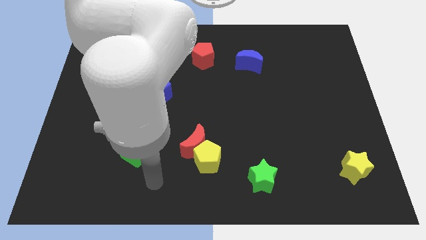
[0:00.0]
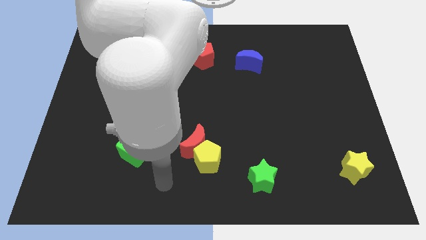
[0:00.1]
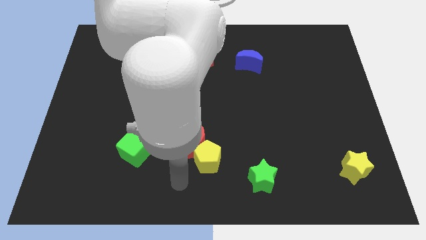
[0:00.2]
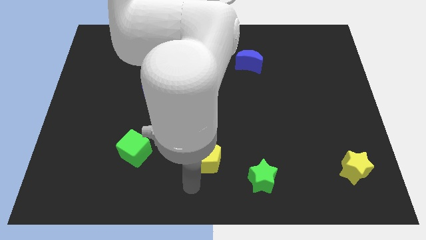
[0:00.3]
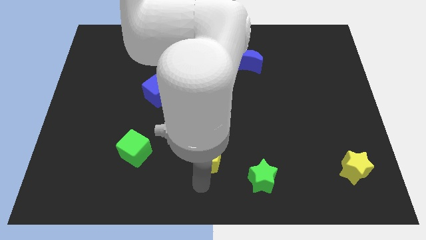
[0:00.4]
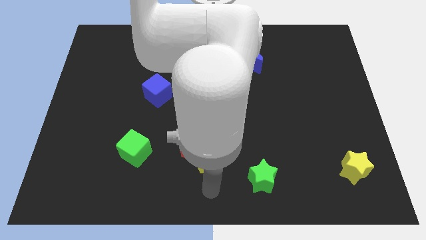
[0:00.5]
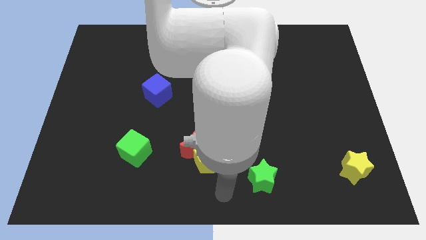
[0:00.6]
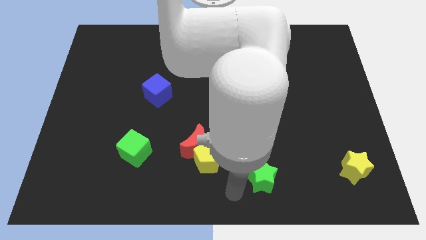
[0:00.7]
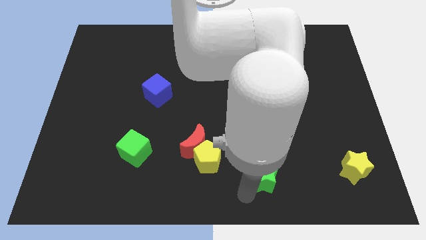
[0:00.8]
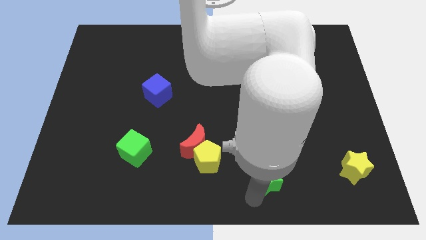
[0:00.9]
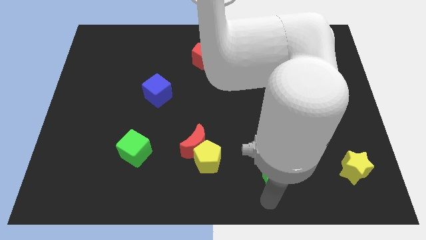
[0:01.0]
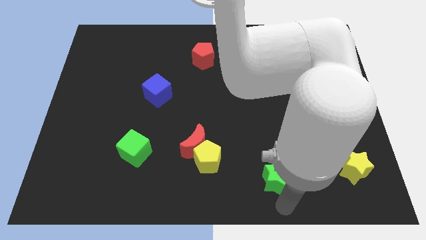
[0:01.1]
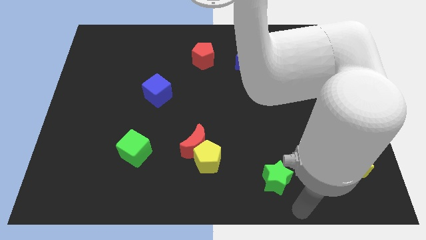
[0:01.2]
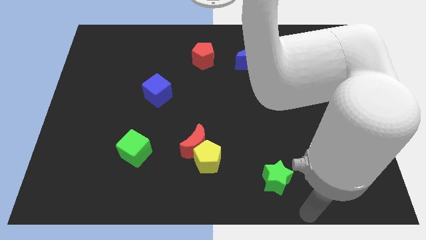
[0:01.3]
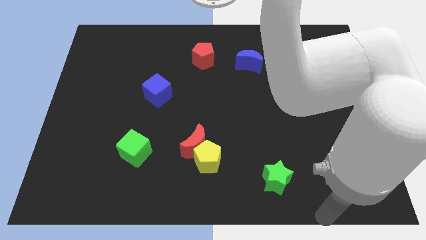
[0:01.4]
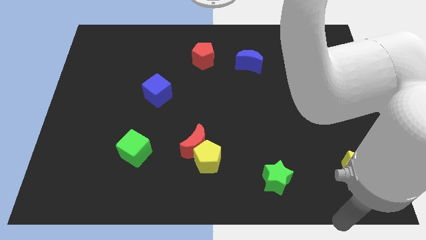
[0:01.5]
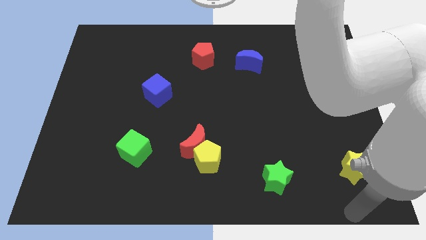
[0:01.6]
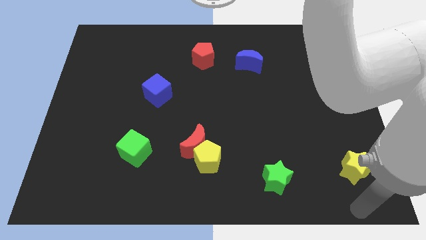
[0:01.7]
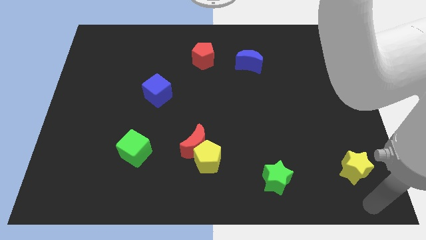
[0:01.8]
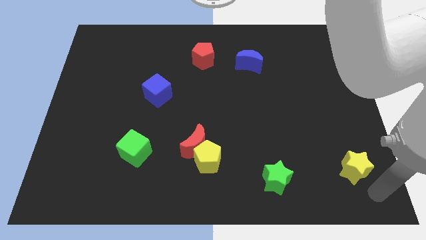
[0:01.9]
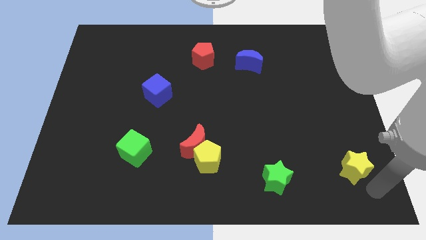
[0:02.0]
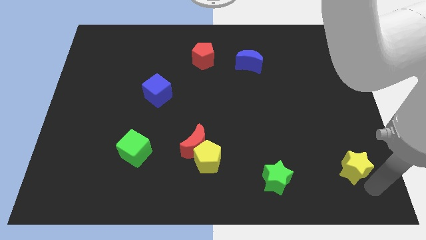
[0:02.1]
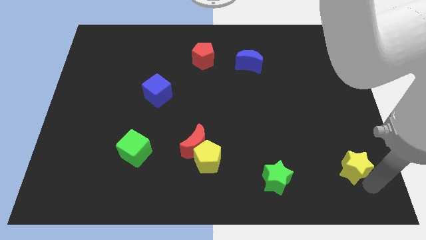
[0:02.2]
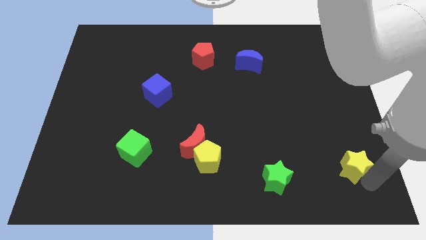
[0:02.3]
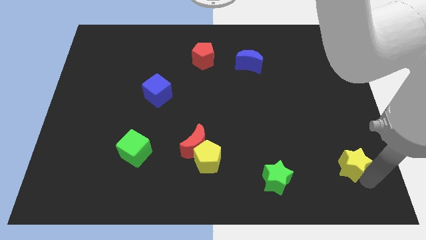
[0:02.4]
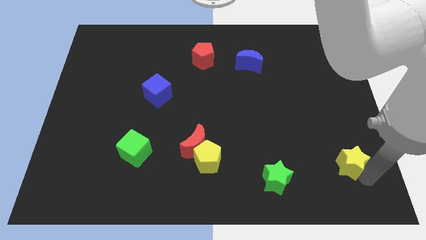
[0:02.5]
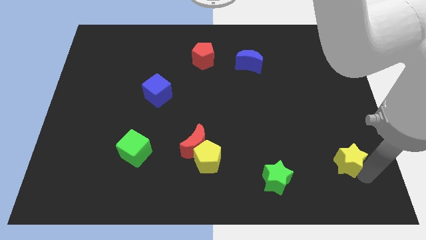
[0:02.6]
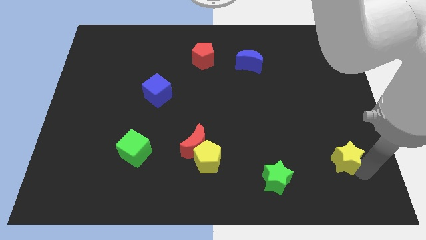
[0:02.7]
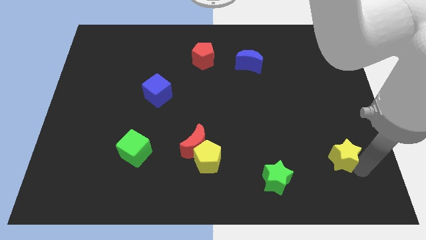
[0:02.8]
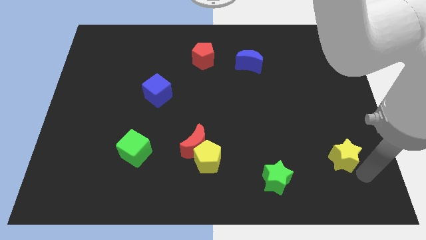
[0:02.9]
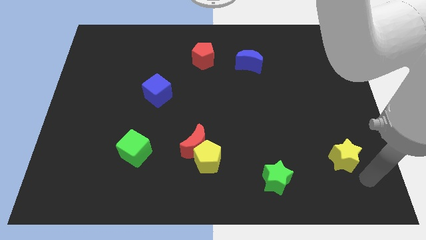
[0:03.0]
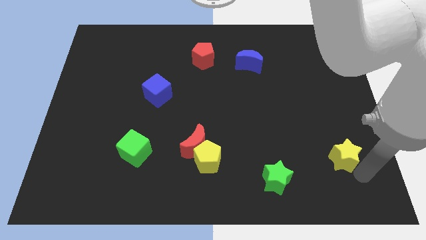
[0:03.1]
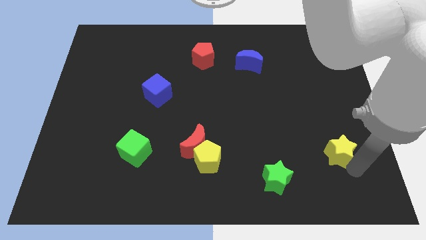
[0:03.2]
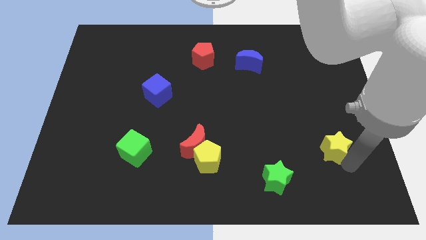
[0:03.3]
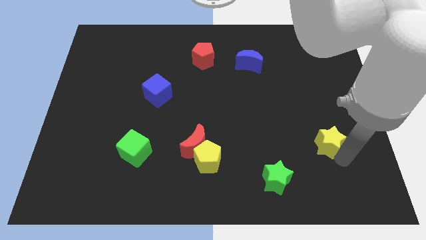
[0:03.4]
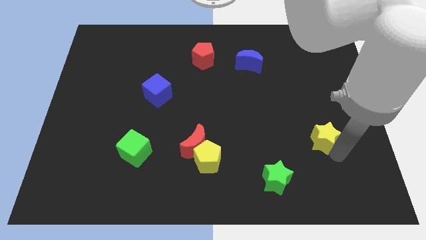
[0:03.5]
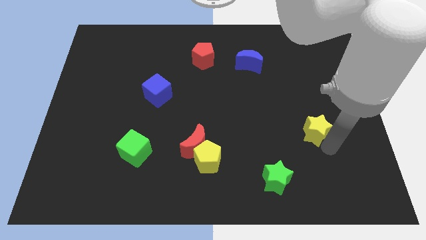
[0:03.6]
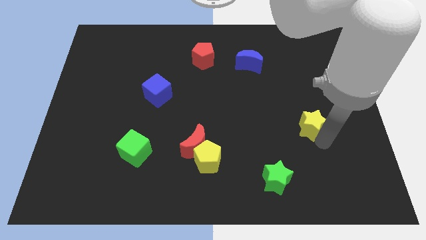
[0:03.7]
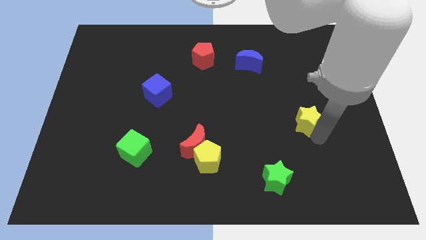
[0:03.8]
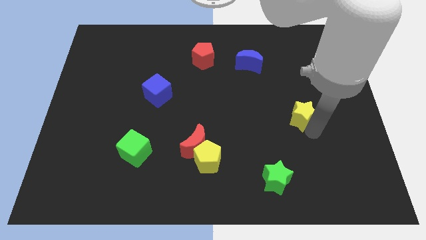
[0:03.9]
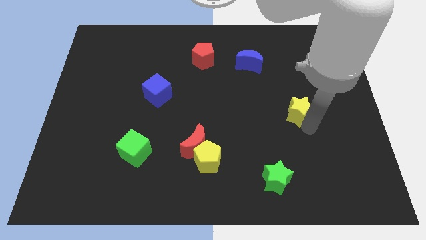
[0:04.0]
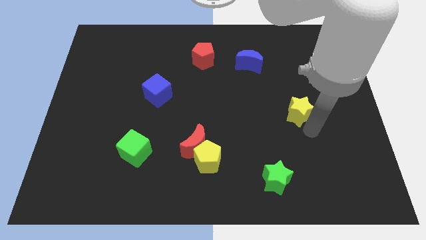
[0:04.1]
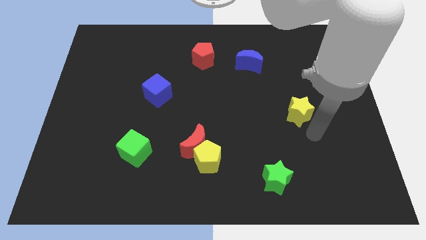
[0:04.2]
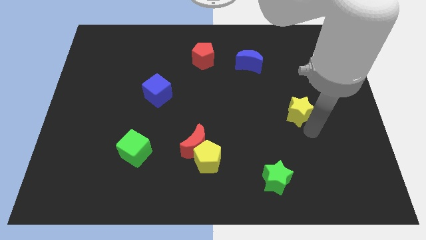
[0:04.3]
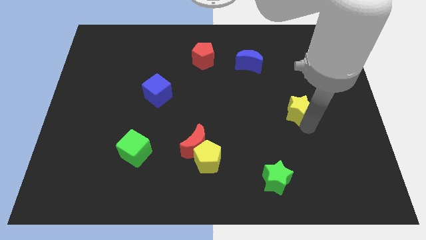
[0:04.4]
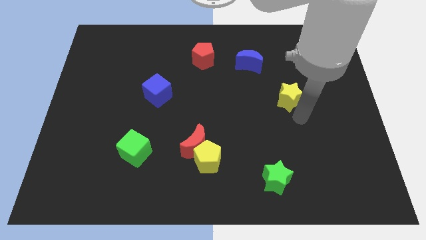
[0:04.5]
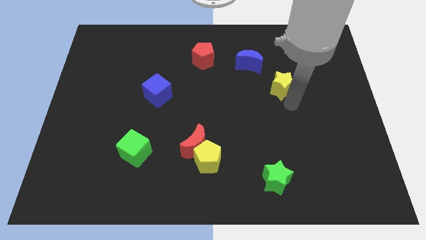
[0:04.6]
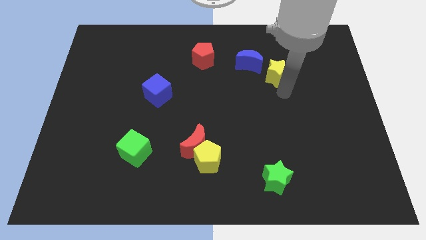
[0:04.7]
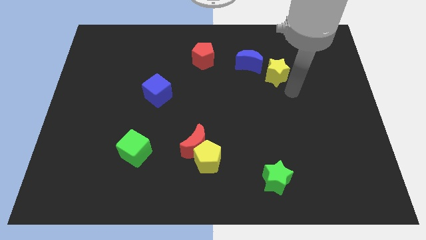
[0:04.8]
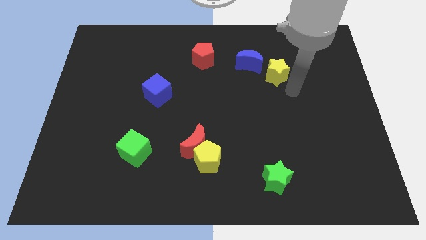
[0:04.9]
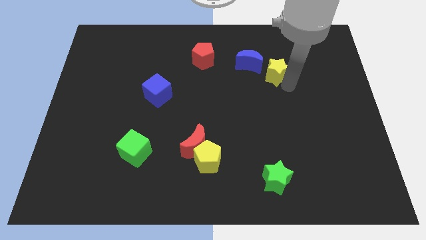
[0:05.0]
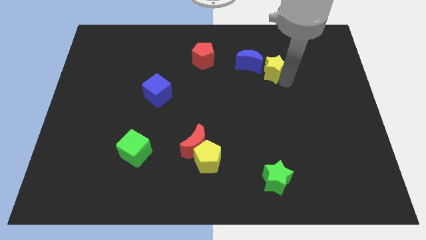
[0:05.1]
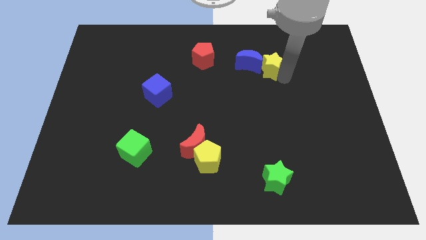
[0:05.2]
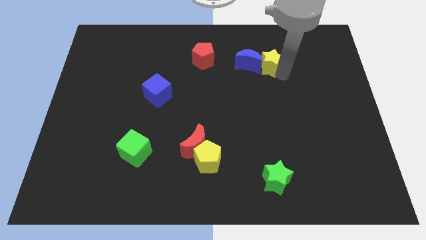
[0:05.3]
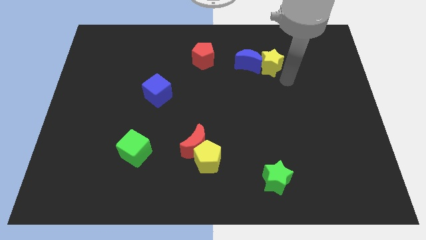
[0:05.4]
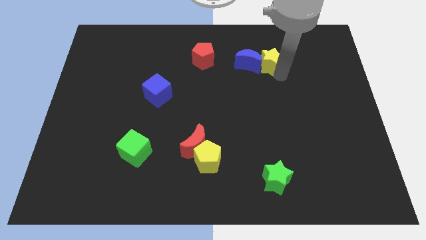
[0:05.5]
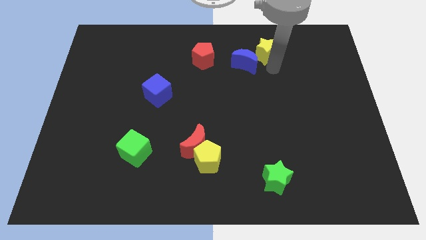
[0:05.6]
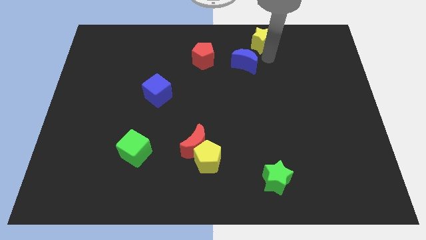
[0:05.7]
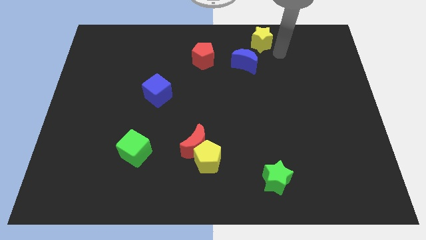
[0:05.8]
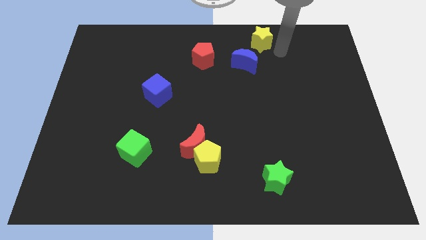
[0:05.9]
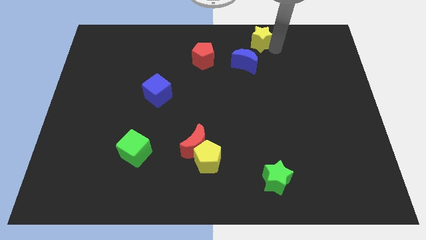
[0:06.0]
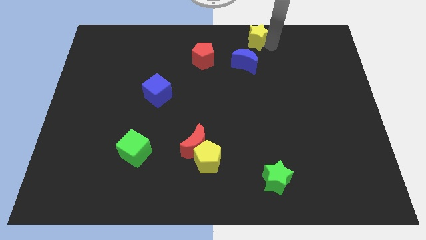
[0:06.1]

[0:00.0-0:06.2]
slide the yellow star to the top side

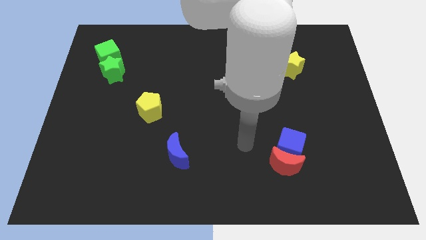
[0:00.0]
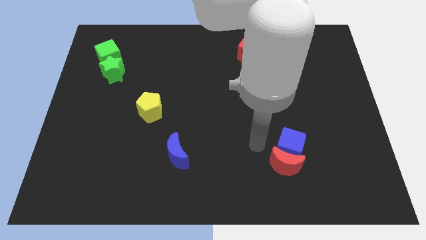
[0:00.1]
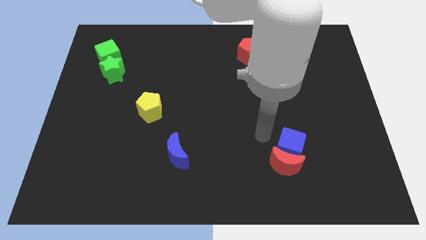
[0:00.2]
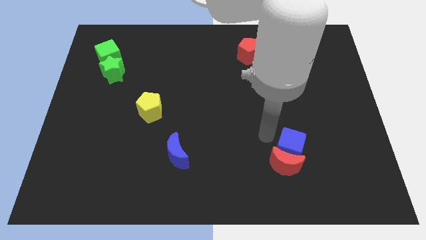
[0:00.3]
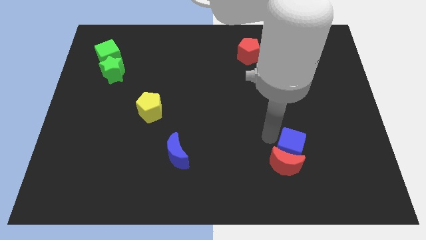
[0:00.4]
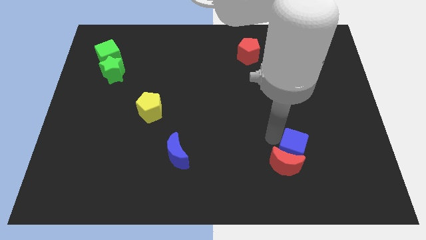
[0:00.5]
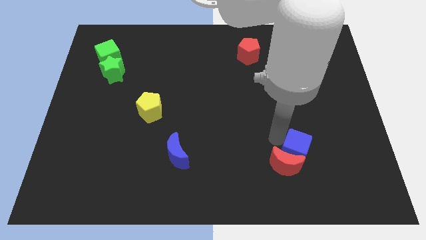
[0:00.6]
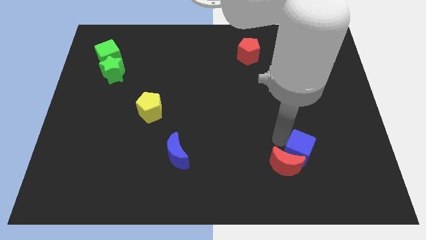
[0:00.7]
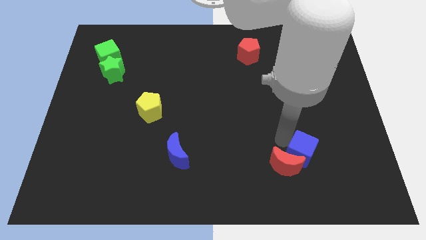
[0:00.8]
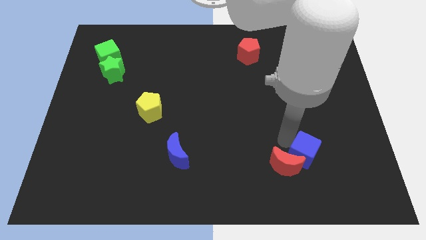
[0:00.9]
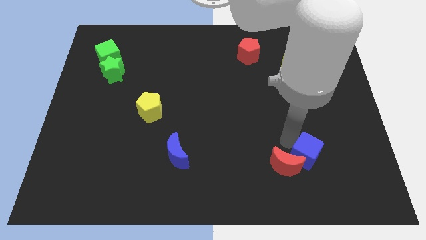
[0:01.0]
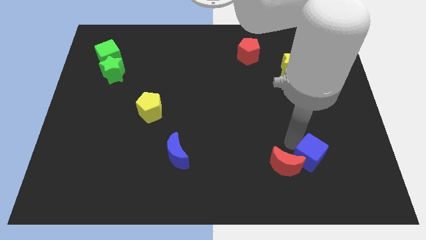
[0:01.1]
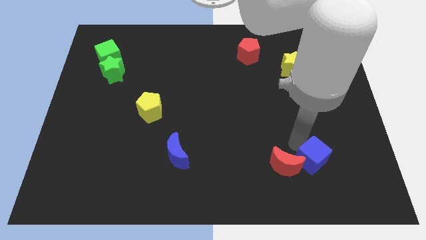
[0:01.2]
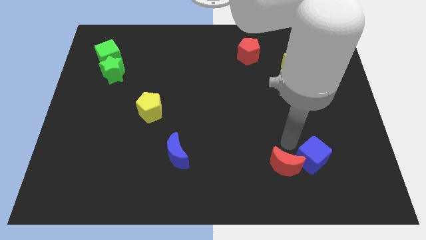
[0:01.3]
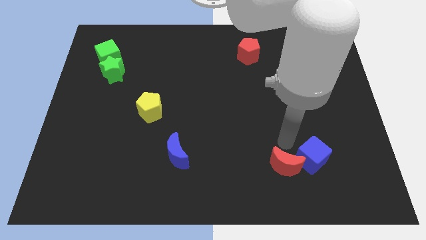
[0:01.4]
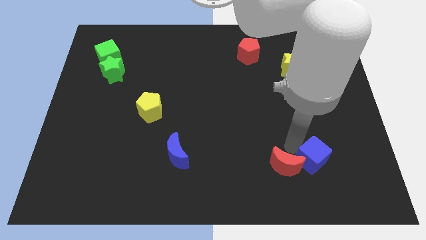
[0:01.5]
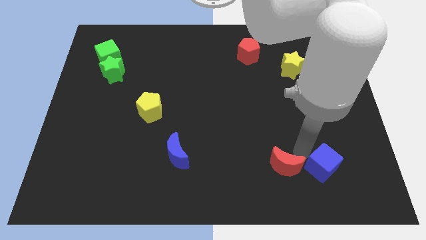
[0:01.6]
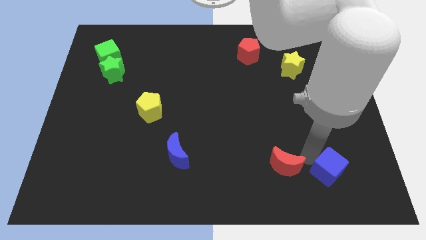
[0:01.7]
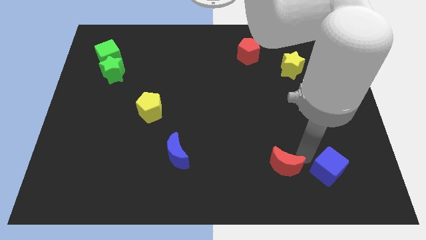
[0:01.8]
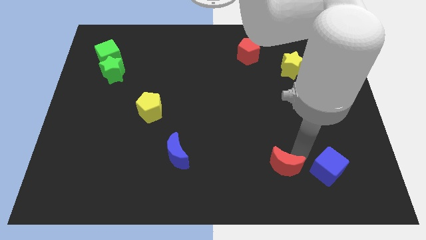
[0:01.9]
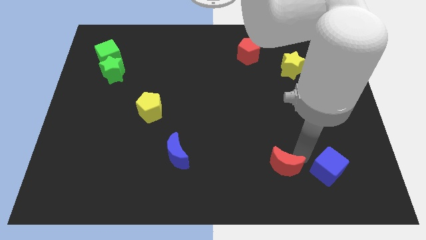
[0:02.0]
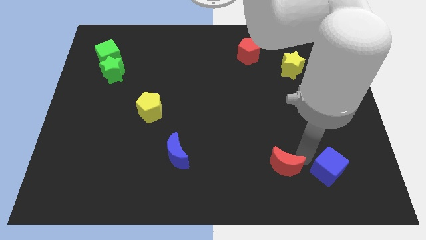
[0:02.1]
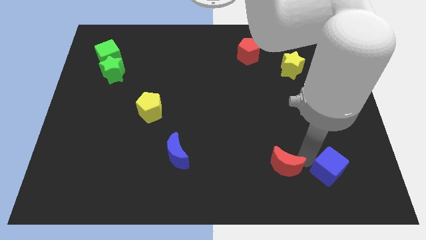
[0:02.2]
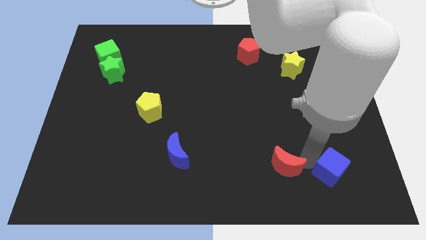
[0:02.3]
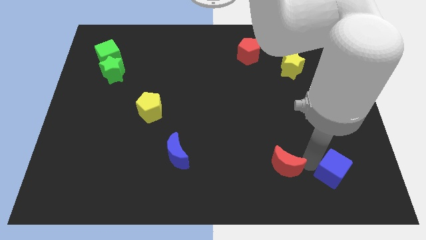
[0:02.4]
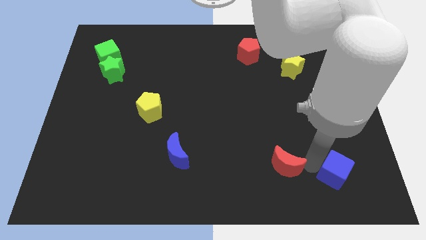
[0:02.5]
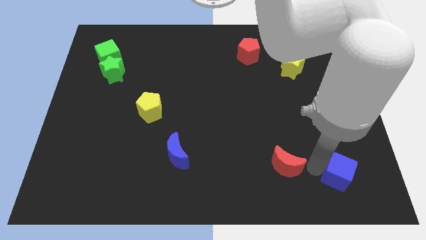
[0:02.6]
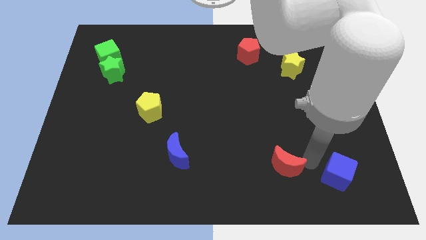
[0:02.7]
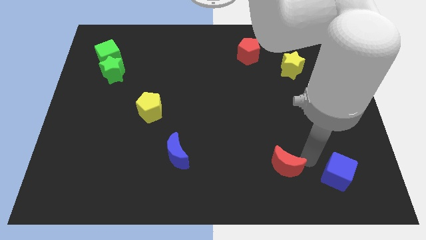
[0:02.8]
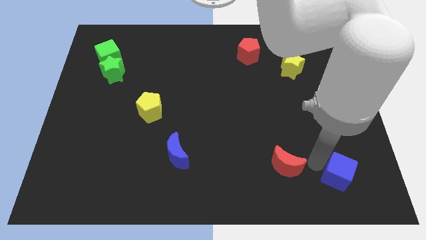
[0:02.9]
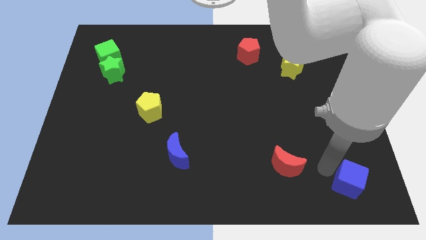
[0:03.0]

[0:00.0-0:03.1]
put the blue cube to the bottom right
